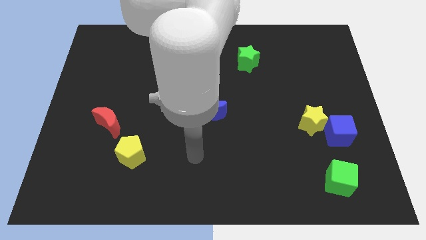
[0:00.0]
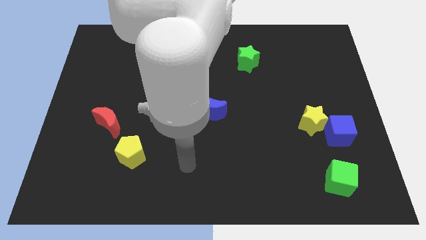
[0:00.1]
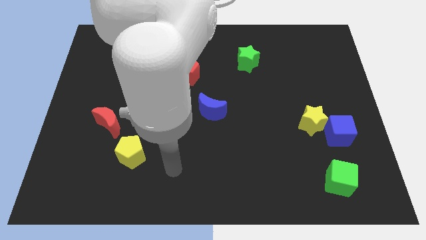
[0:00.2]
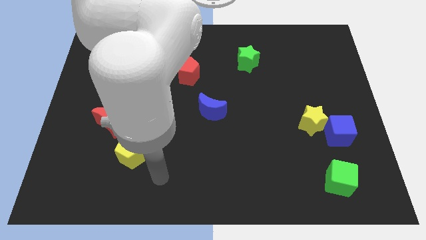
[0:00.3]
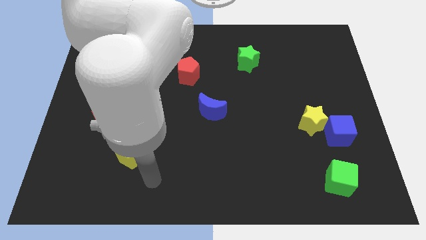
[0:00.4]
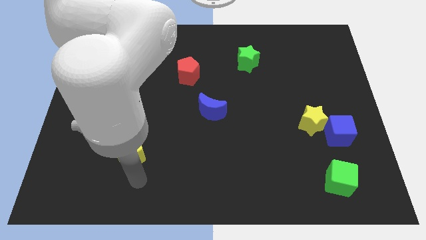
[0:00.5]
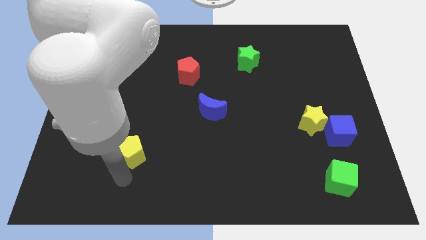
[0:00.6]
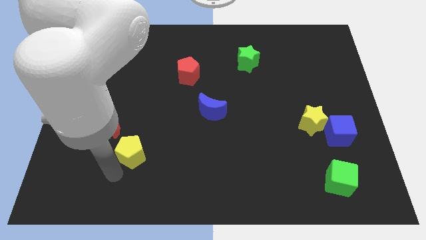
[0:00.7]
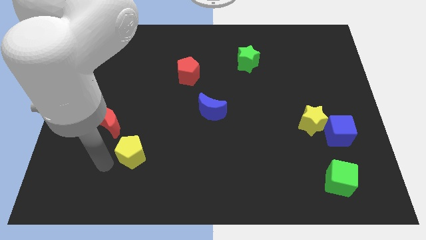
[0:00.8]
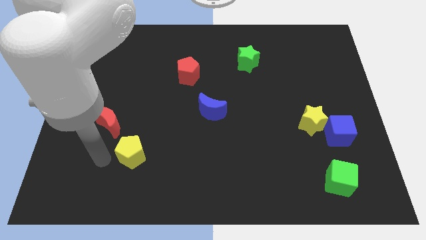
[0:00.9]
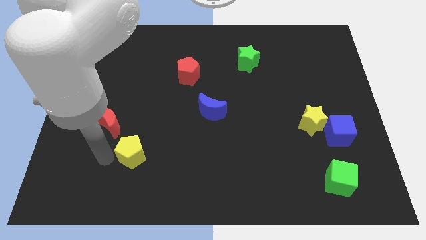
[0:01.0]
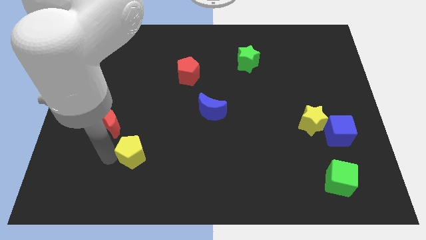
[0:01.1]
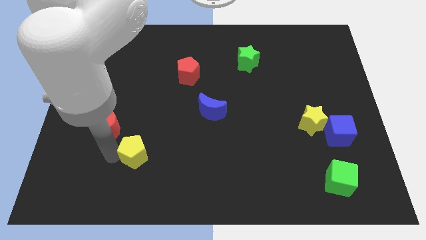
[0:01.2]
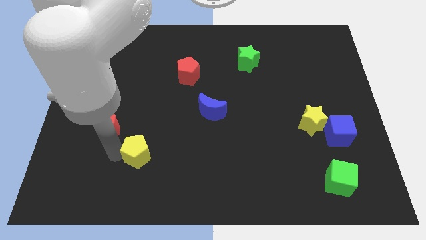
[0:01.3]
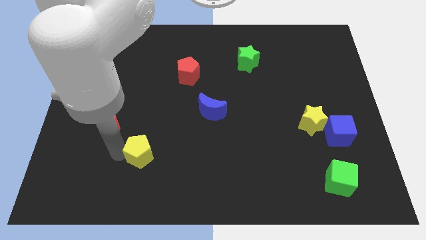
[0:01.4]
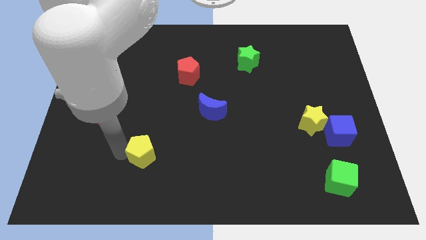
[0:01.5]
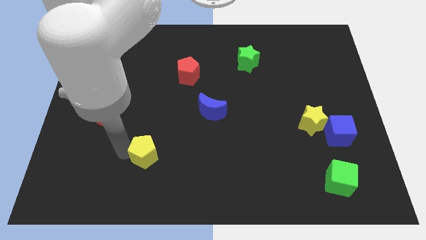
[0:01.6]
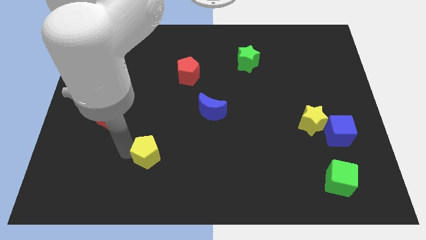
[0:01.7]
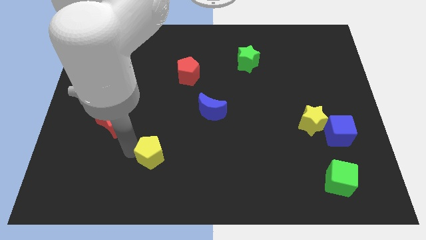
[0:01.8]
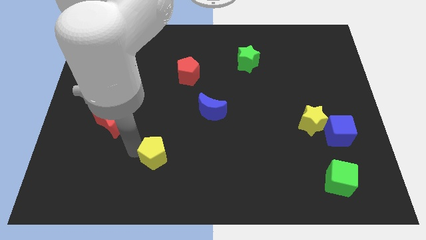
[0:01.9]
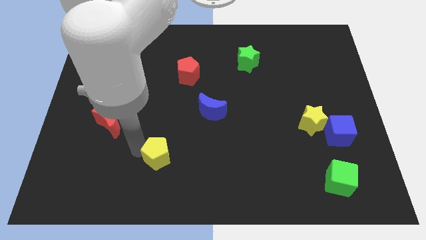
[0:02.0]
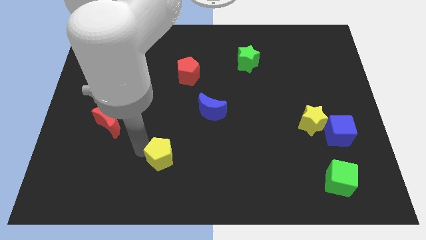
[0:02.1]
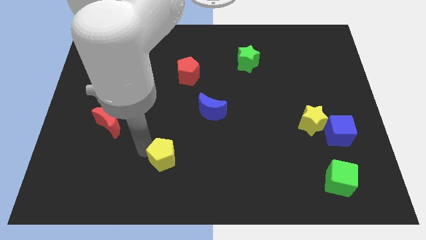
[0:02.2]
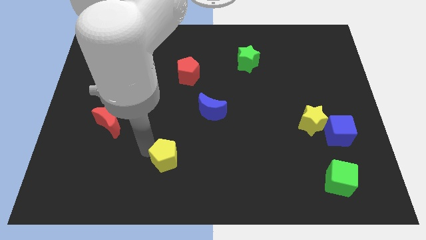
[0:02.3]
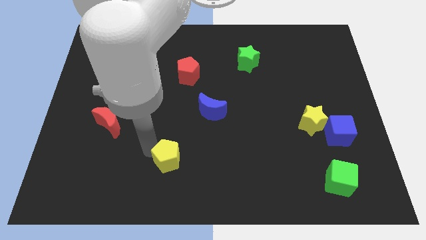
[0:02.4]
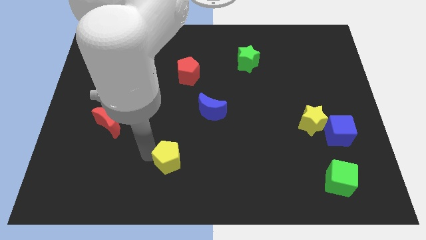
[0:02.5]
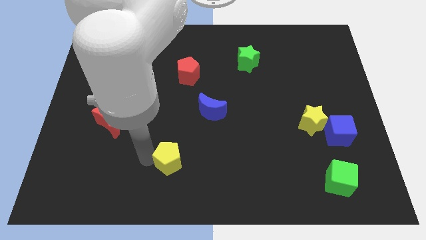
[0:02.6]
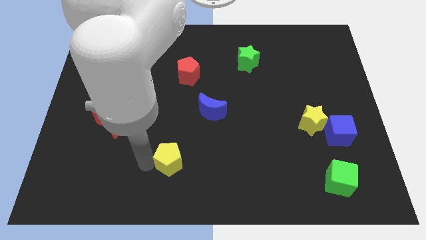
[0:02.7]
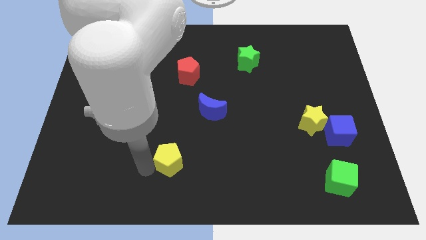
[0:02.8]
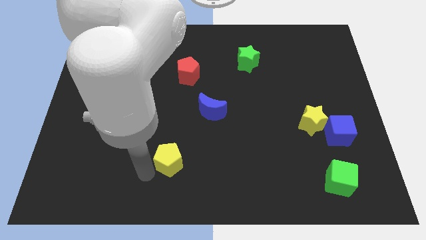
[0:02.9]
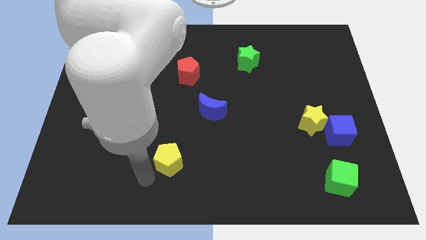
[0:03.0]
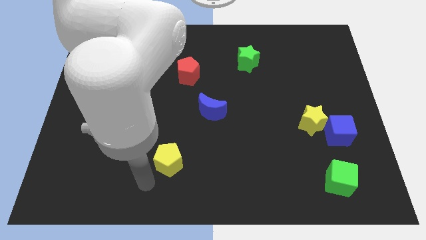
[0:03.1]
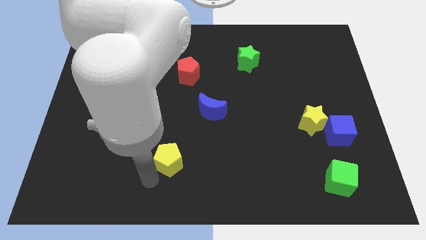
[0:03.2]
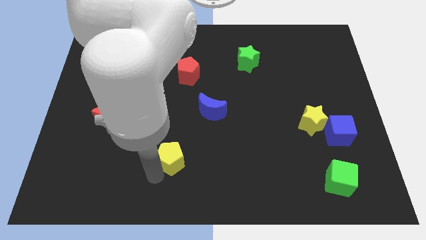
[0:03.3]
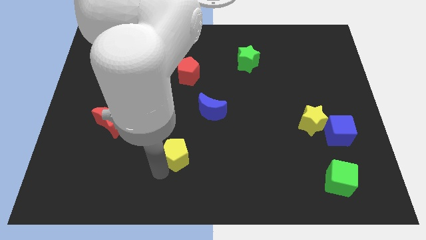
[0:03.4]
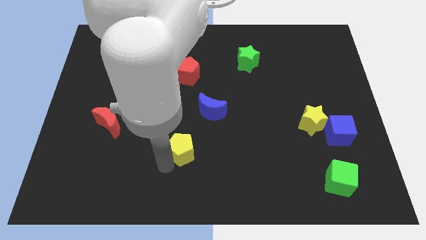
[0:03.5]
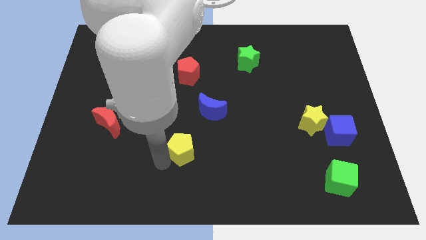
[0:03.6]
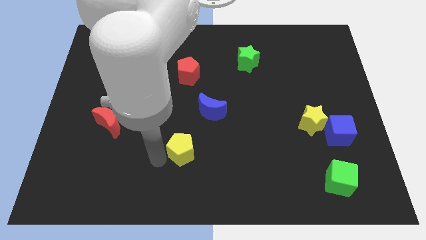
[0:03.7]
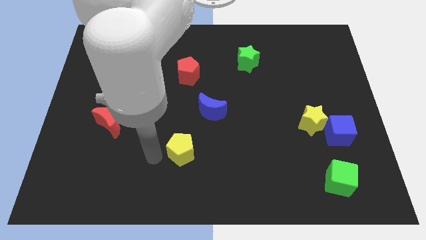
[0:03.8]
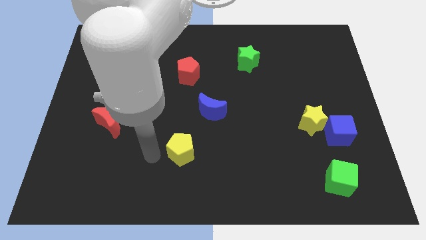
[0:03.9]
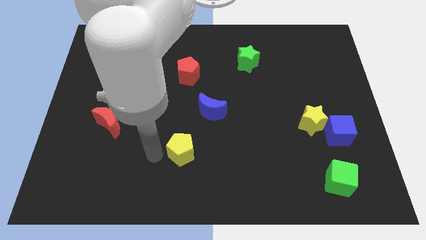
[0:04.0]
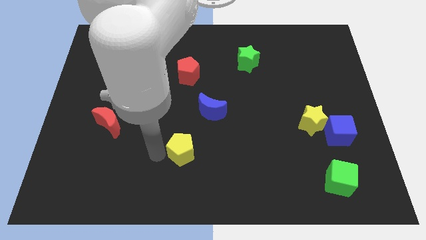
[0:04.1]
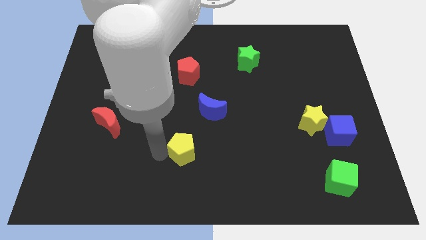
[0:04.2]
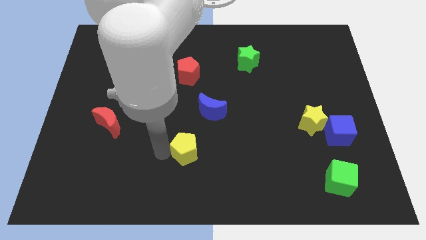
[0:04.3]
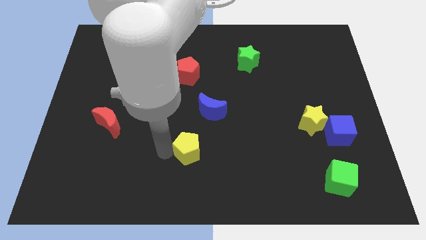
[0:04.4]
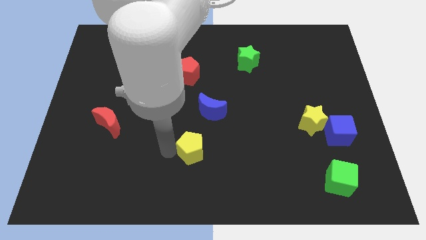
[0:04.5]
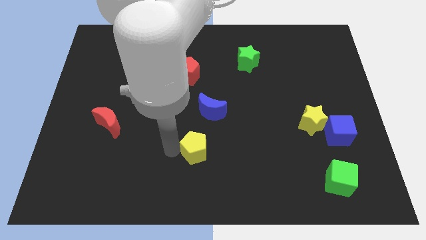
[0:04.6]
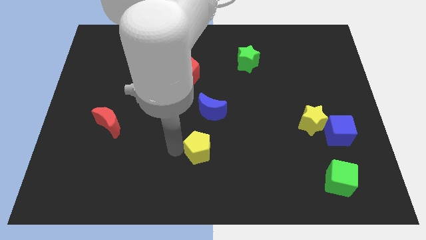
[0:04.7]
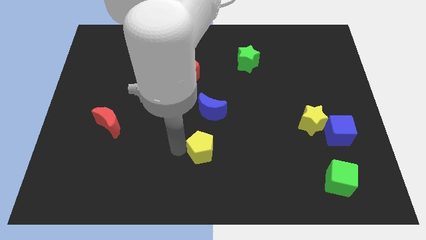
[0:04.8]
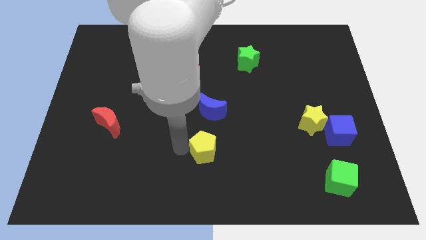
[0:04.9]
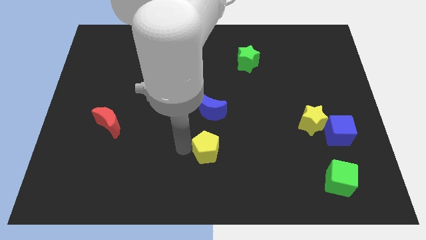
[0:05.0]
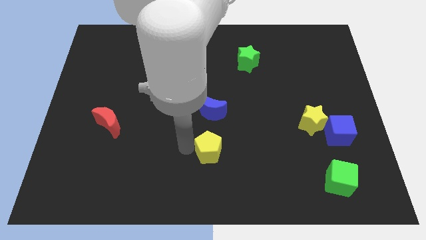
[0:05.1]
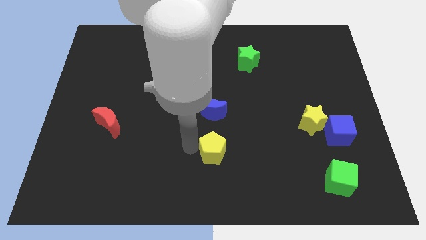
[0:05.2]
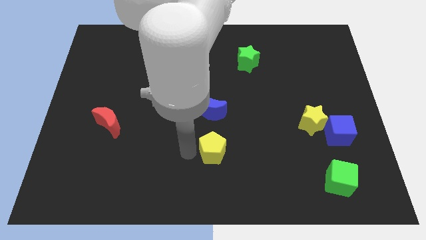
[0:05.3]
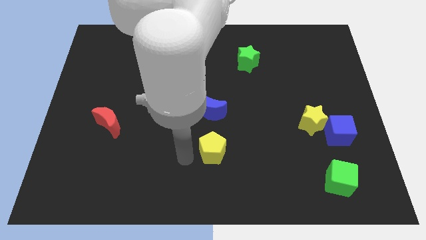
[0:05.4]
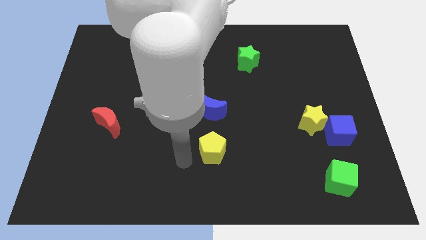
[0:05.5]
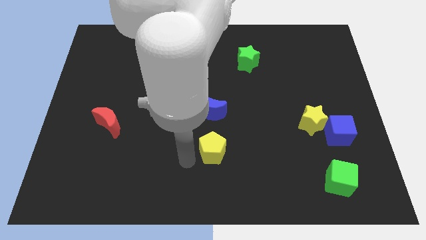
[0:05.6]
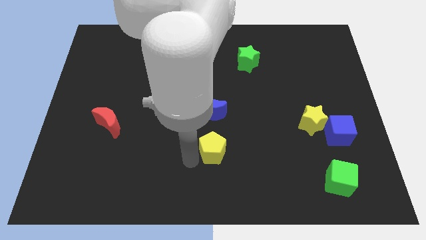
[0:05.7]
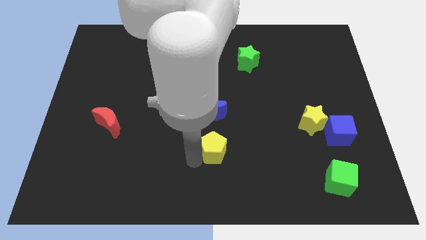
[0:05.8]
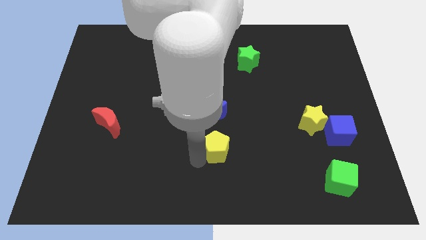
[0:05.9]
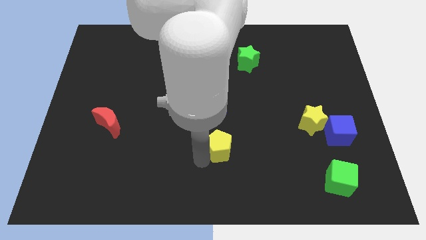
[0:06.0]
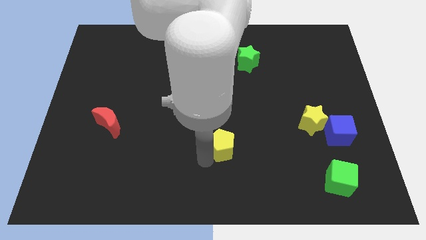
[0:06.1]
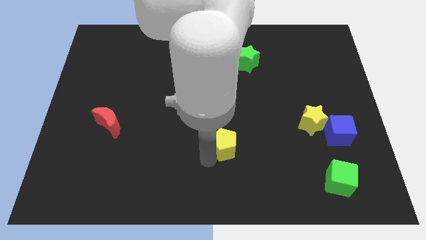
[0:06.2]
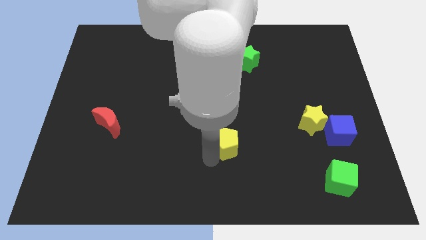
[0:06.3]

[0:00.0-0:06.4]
push the yellow pentagon right

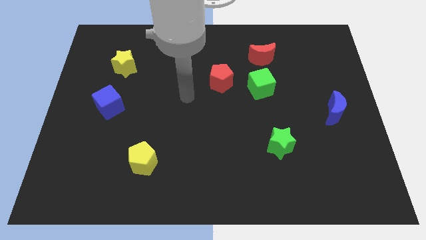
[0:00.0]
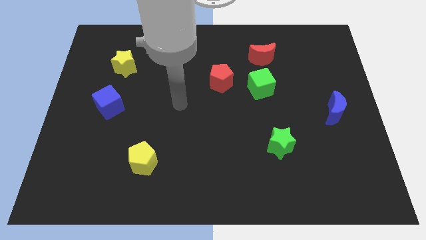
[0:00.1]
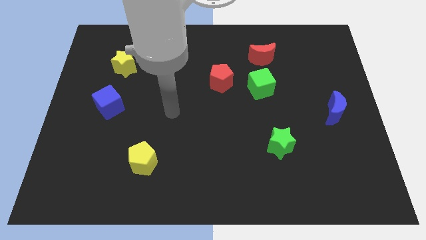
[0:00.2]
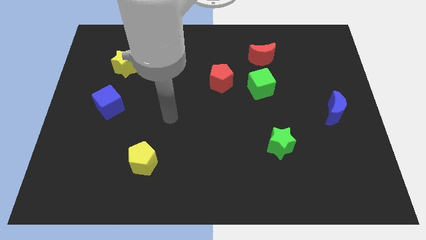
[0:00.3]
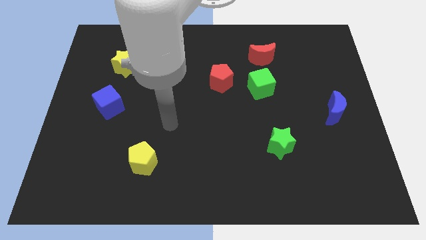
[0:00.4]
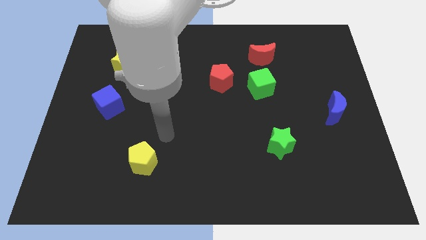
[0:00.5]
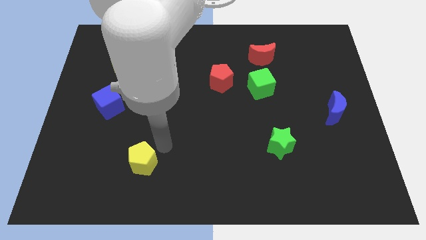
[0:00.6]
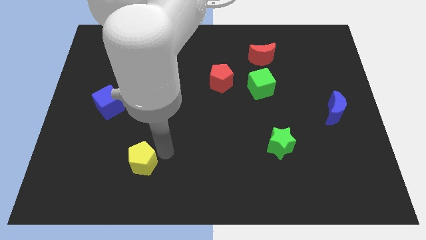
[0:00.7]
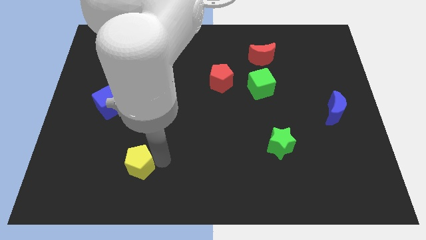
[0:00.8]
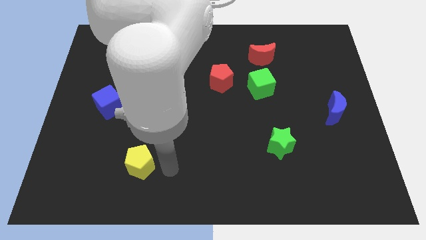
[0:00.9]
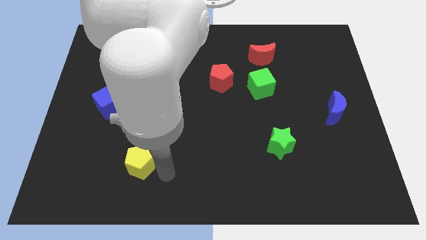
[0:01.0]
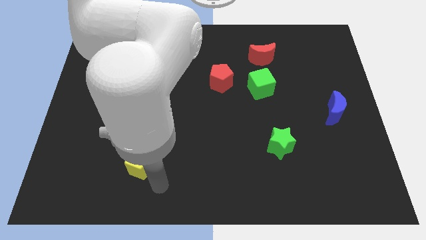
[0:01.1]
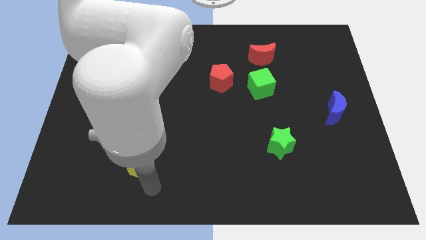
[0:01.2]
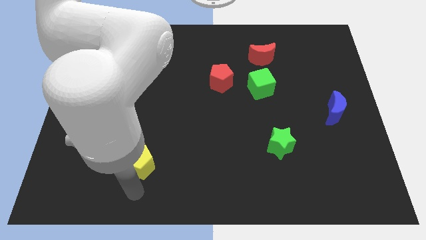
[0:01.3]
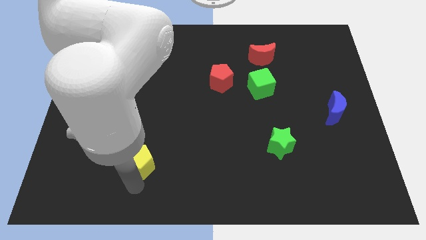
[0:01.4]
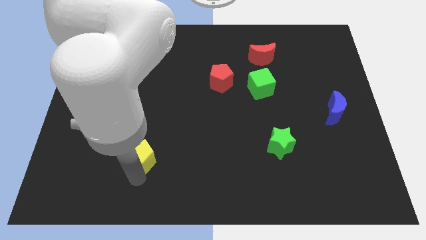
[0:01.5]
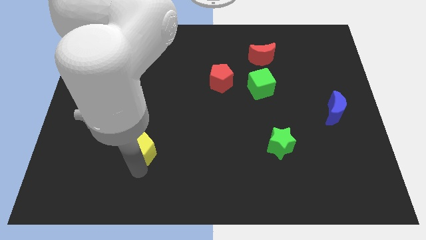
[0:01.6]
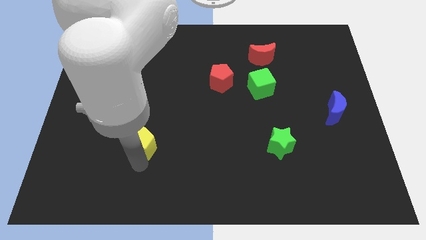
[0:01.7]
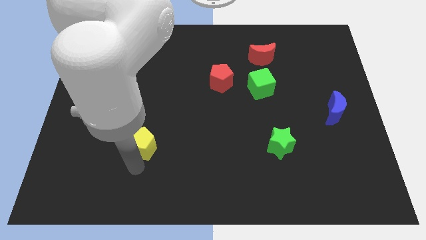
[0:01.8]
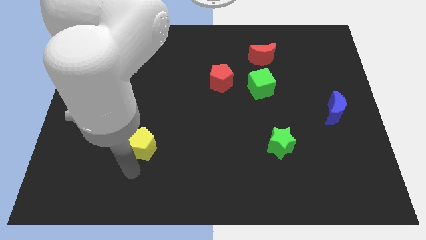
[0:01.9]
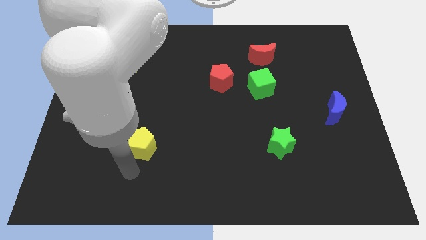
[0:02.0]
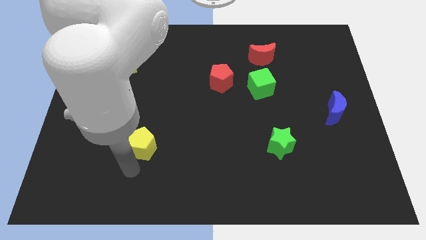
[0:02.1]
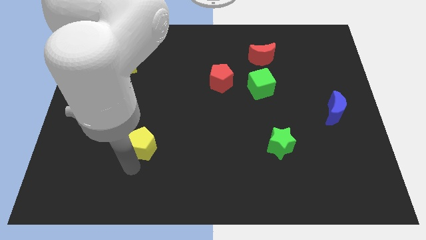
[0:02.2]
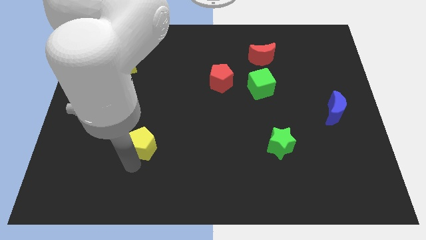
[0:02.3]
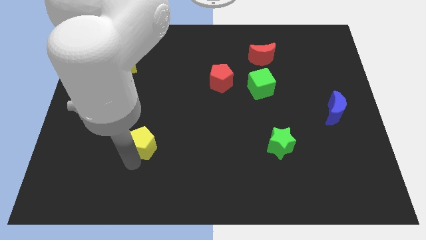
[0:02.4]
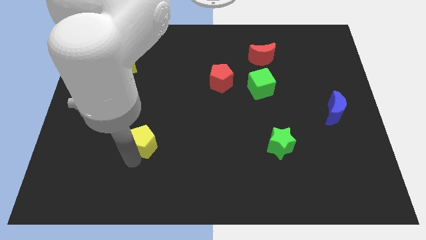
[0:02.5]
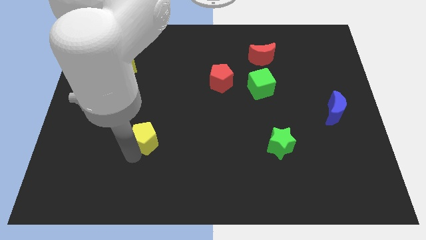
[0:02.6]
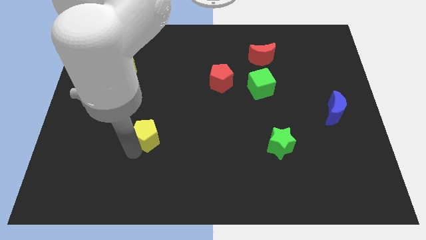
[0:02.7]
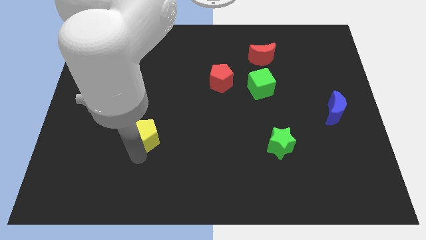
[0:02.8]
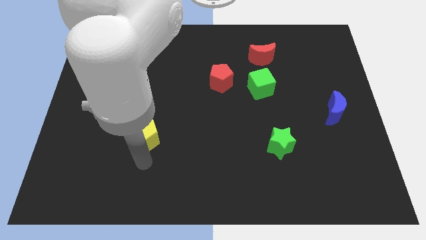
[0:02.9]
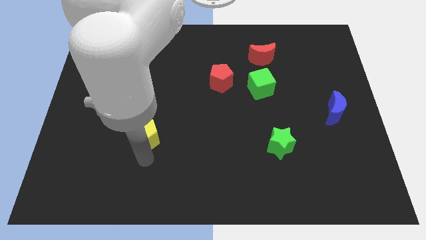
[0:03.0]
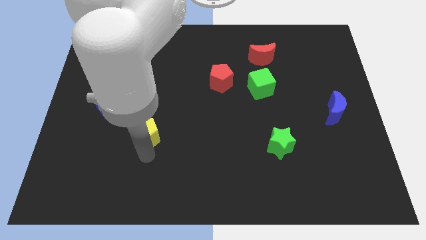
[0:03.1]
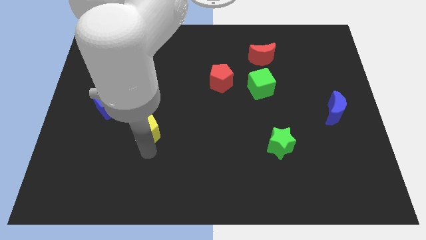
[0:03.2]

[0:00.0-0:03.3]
slightly slide the yellow pentagon up
